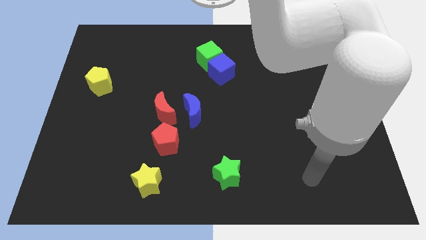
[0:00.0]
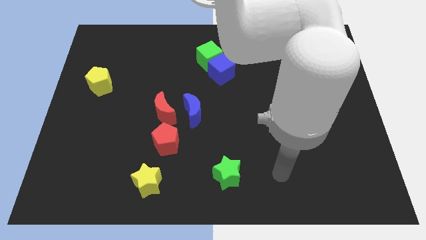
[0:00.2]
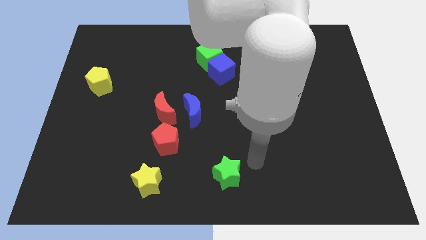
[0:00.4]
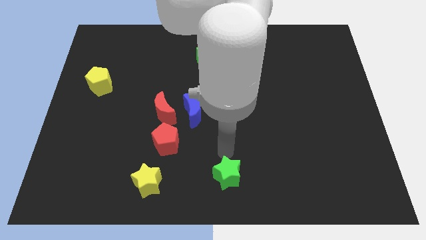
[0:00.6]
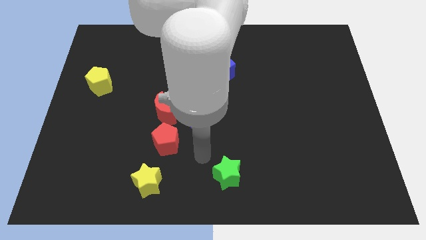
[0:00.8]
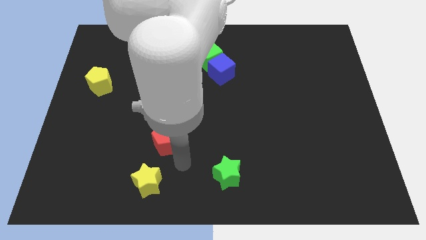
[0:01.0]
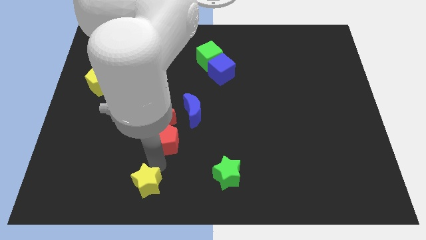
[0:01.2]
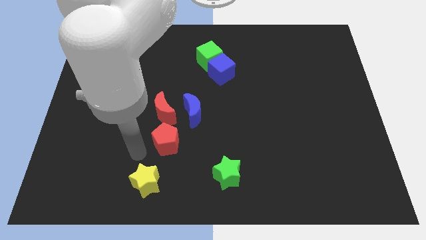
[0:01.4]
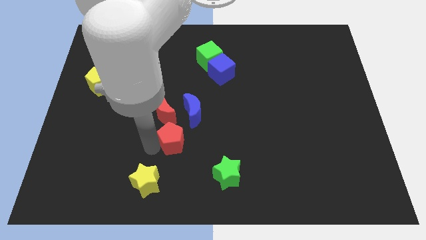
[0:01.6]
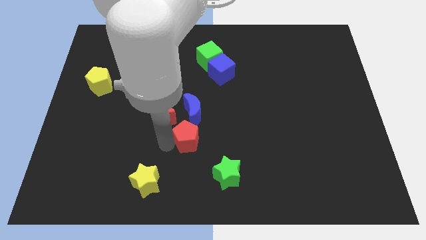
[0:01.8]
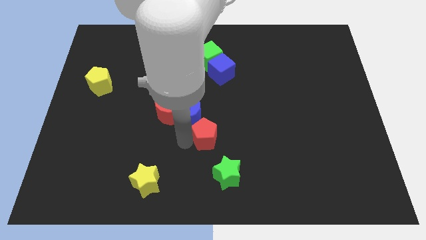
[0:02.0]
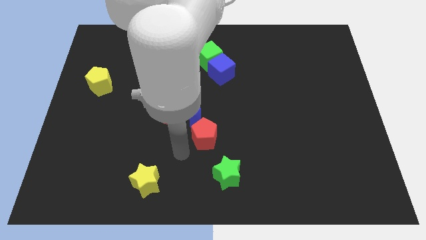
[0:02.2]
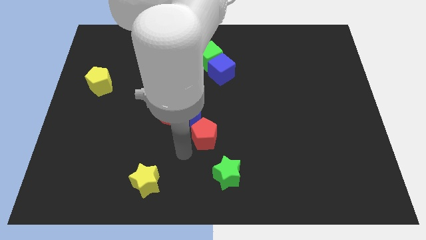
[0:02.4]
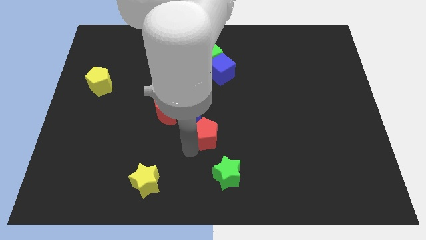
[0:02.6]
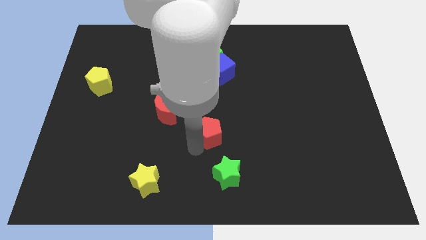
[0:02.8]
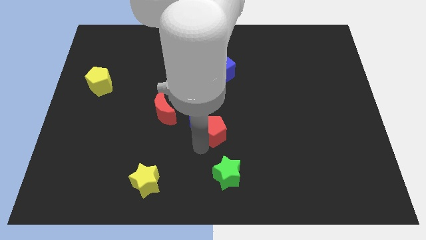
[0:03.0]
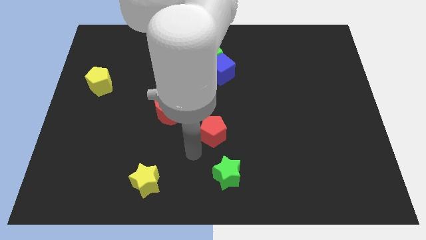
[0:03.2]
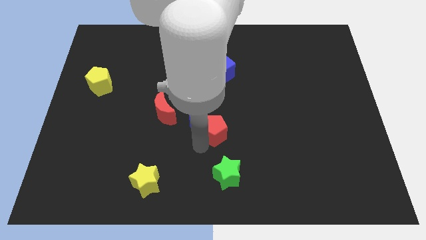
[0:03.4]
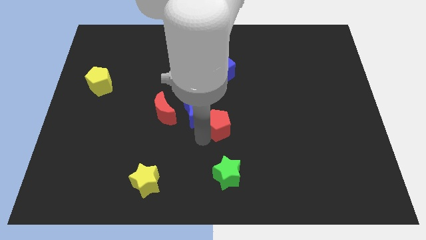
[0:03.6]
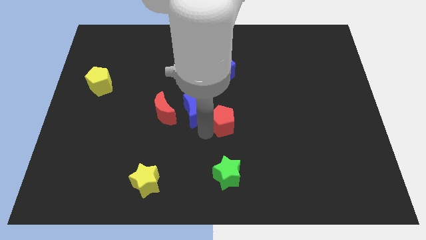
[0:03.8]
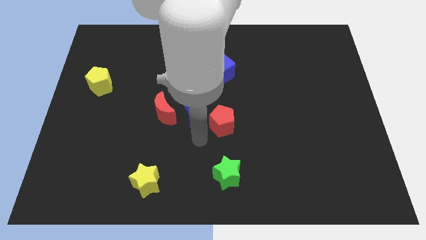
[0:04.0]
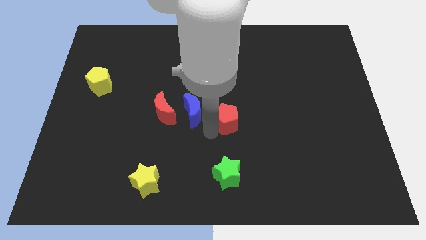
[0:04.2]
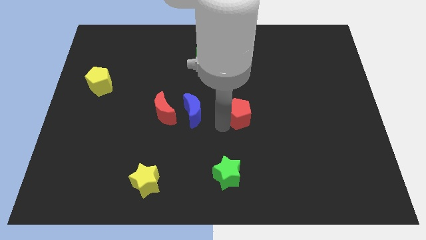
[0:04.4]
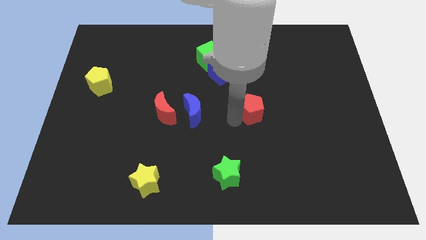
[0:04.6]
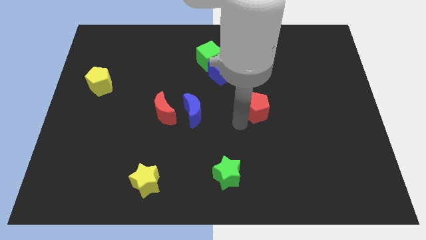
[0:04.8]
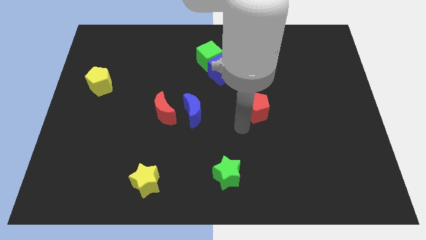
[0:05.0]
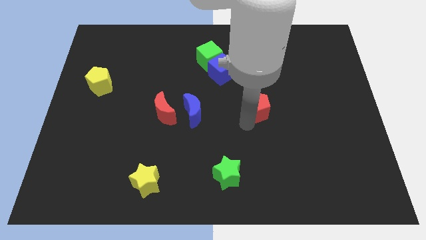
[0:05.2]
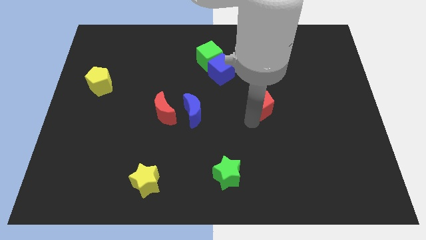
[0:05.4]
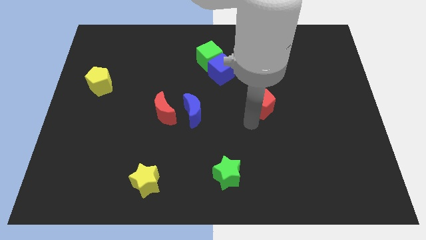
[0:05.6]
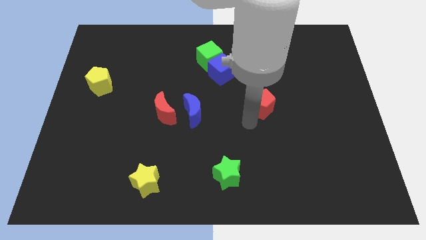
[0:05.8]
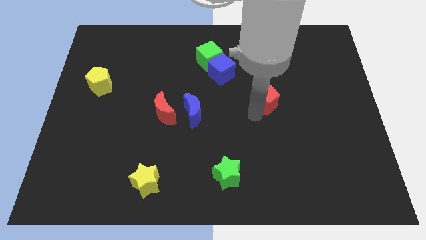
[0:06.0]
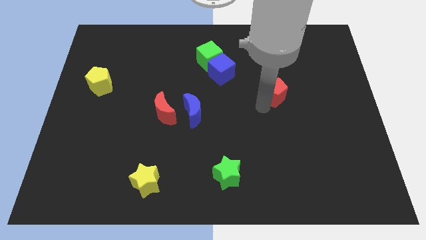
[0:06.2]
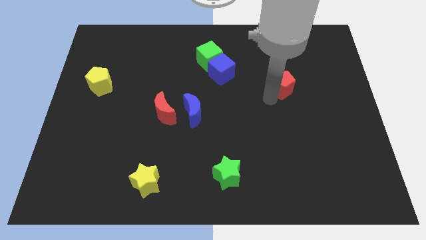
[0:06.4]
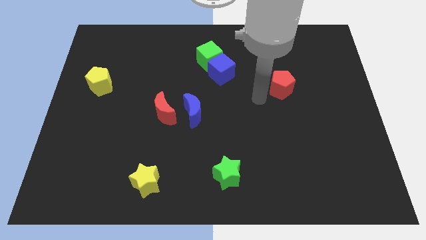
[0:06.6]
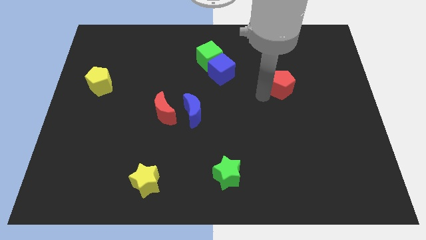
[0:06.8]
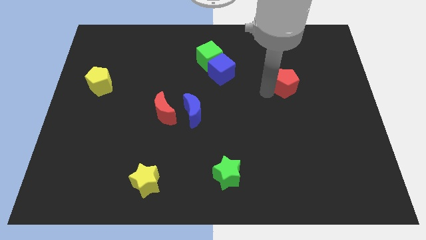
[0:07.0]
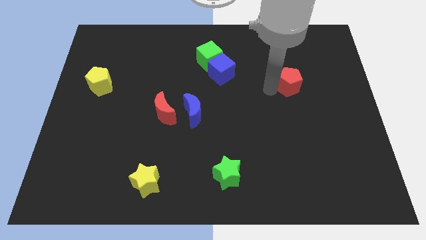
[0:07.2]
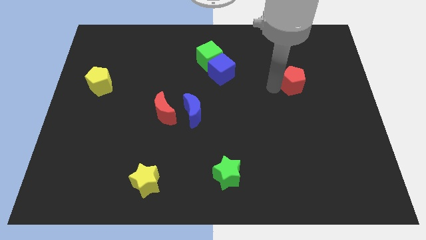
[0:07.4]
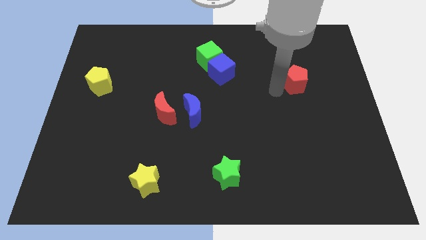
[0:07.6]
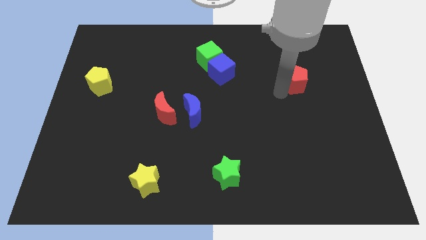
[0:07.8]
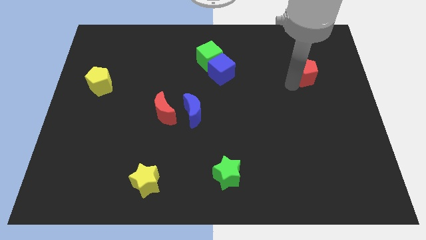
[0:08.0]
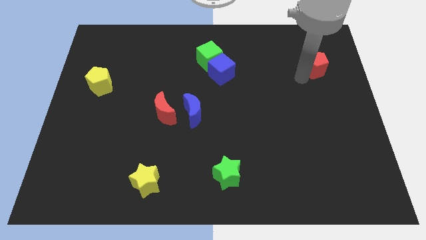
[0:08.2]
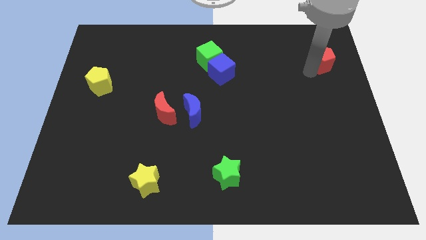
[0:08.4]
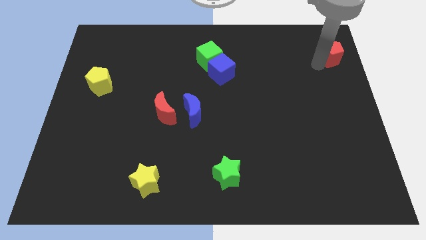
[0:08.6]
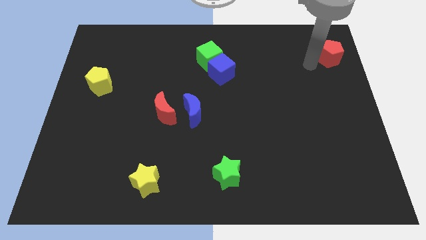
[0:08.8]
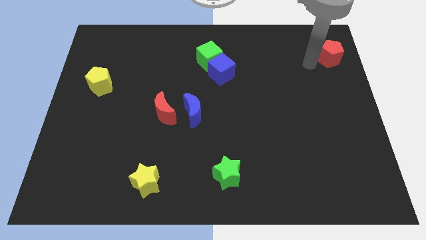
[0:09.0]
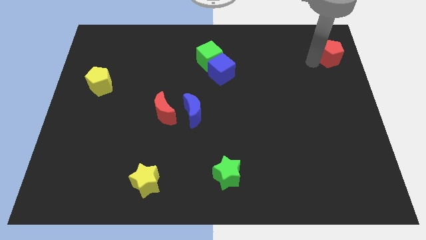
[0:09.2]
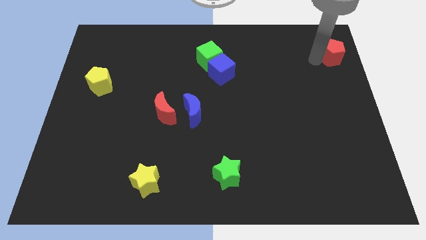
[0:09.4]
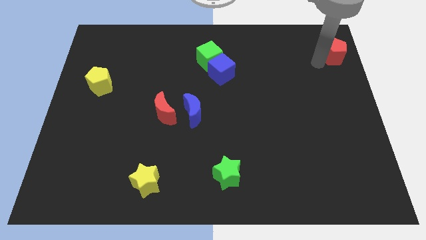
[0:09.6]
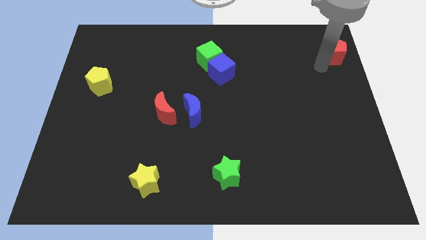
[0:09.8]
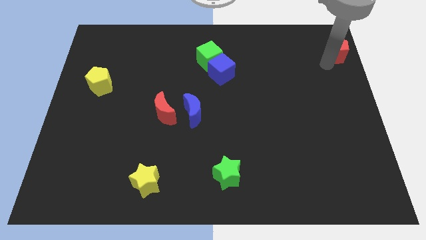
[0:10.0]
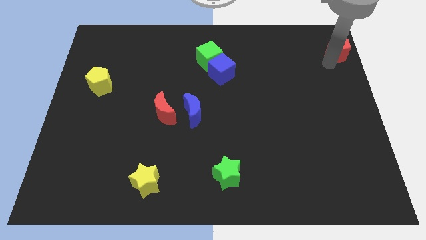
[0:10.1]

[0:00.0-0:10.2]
move the red pentagon to the top right of the board

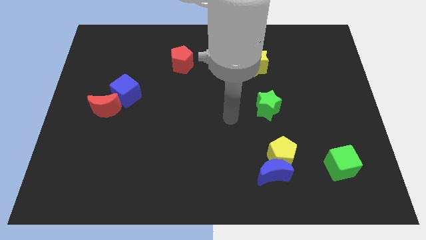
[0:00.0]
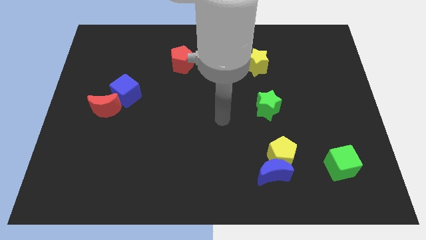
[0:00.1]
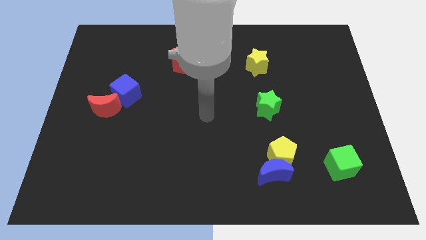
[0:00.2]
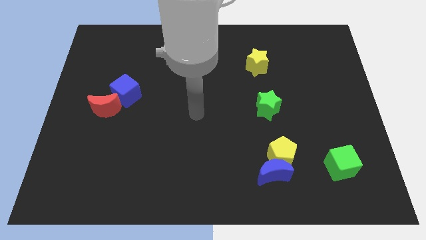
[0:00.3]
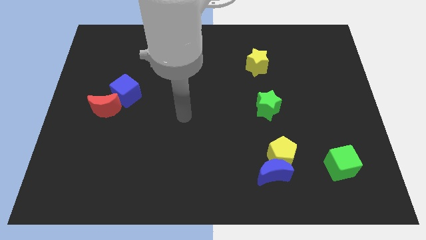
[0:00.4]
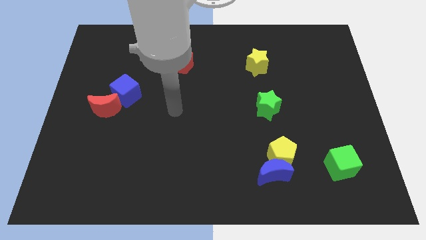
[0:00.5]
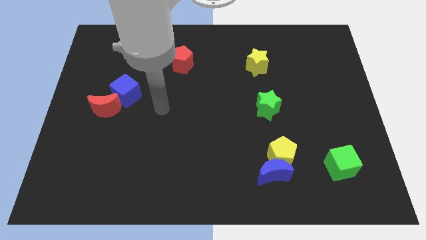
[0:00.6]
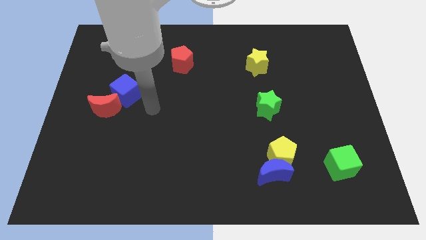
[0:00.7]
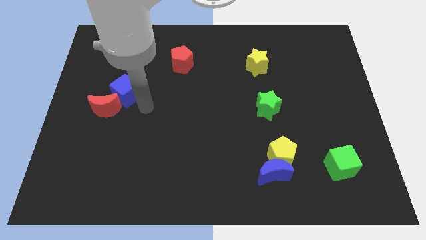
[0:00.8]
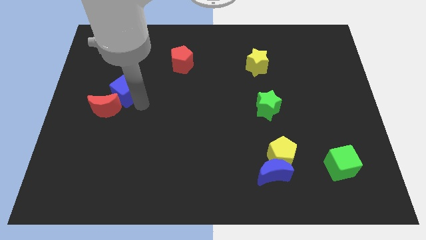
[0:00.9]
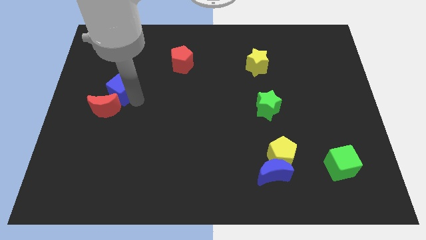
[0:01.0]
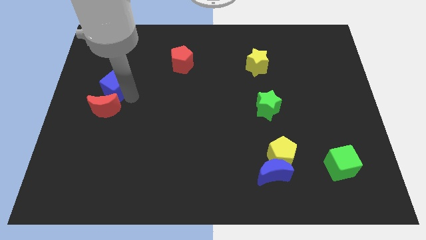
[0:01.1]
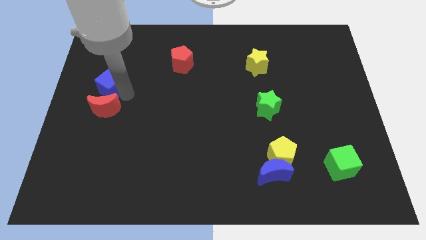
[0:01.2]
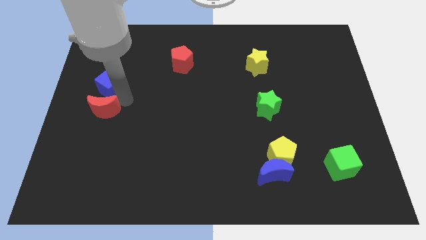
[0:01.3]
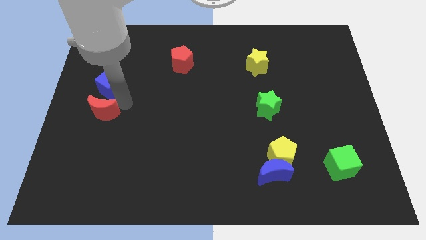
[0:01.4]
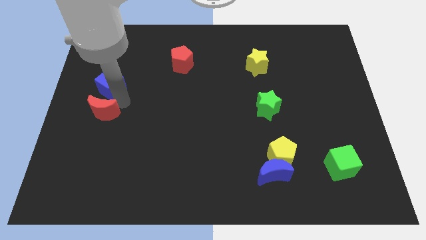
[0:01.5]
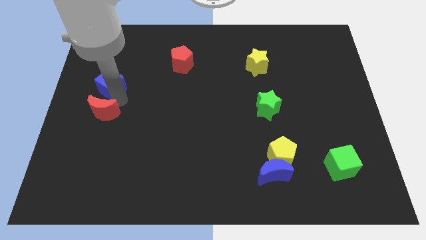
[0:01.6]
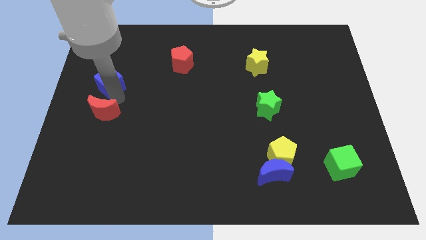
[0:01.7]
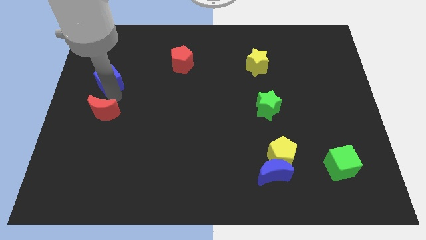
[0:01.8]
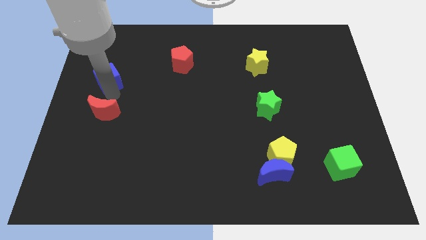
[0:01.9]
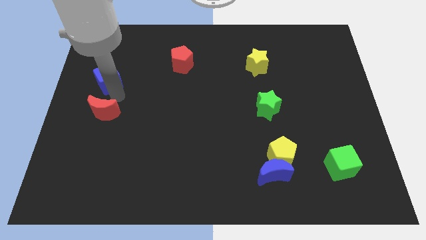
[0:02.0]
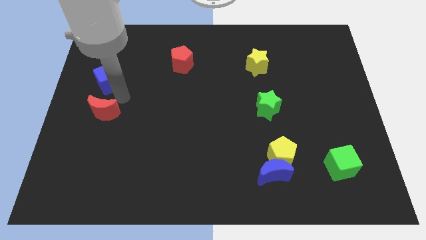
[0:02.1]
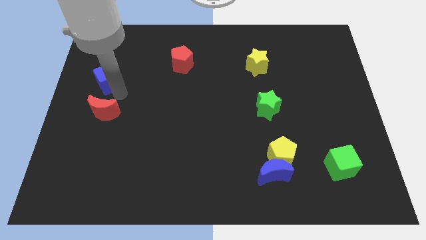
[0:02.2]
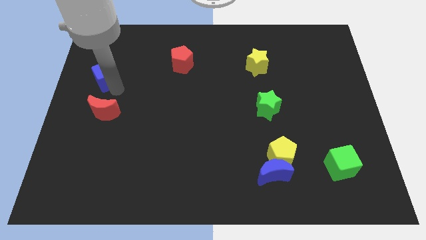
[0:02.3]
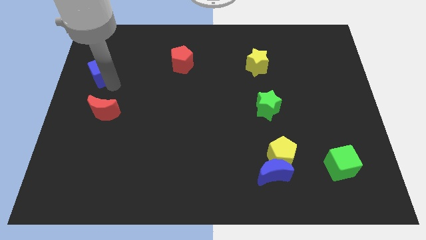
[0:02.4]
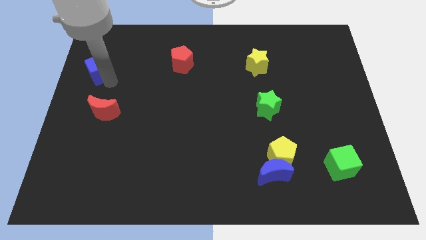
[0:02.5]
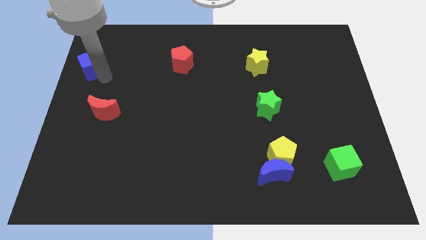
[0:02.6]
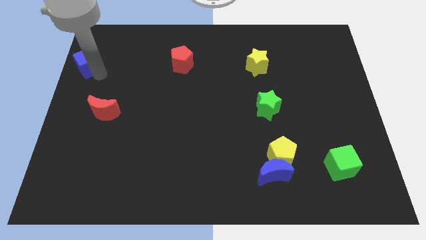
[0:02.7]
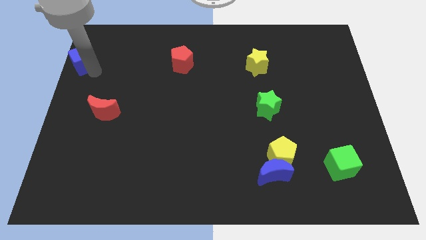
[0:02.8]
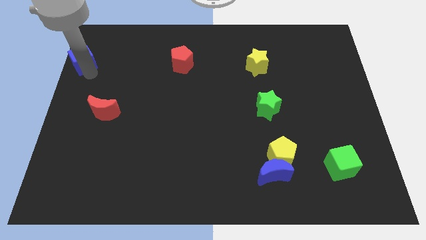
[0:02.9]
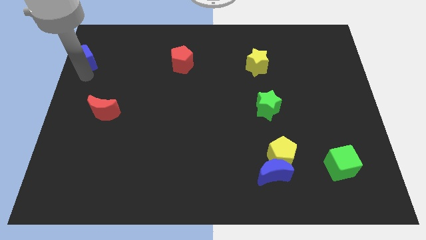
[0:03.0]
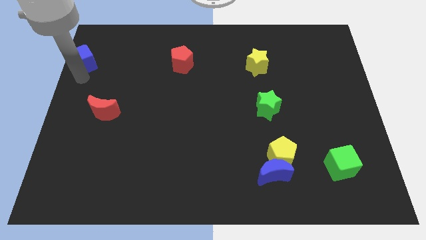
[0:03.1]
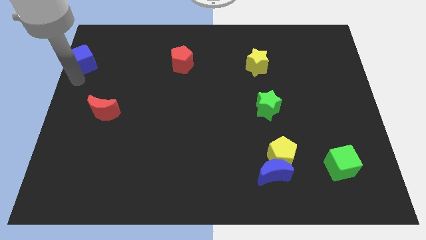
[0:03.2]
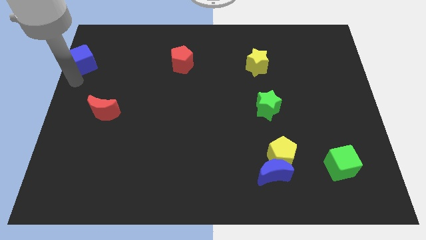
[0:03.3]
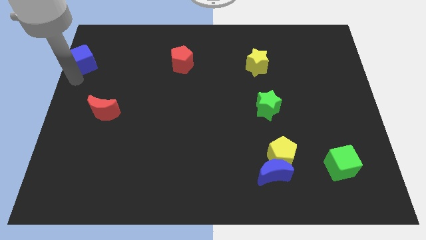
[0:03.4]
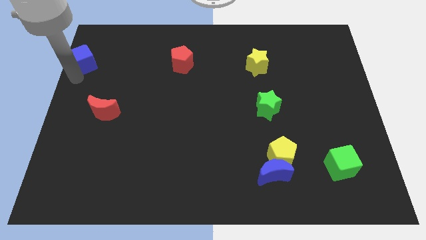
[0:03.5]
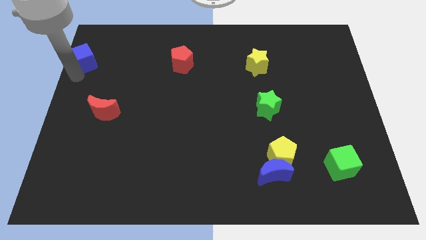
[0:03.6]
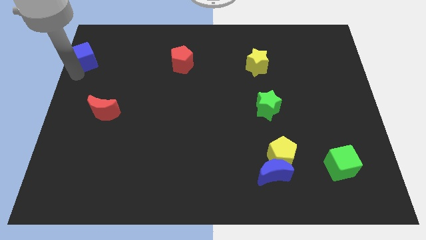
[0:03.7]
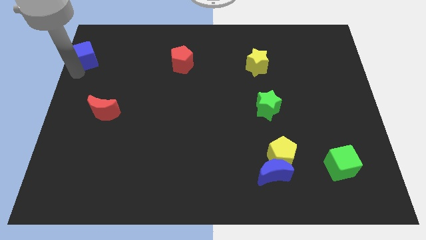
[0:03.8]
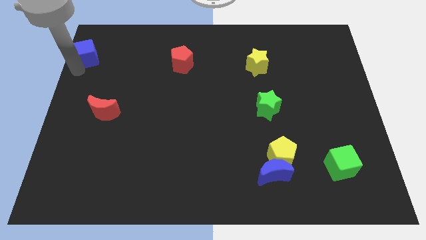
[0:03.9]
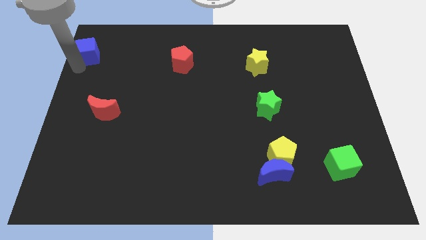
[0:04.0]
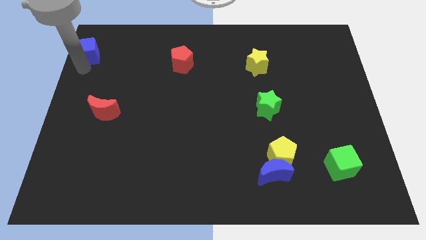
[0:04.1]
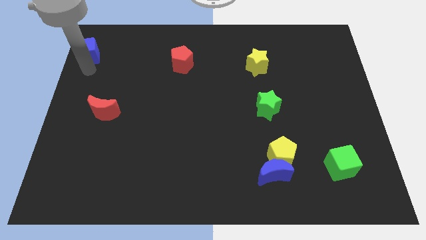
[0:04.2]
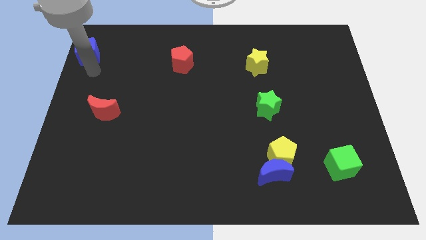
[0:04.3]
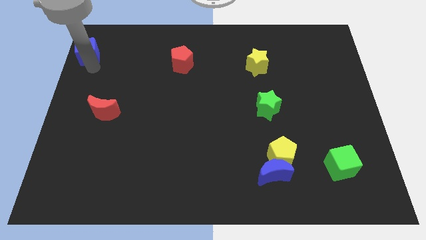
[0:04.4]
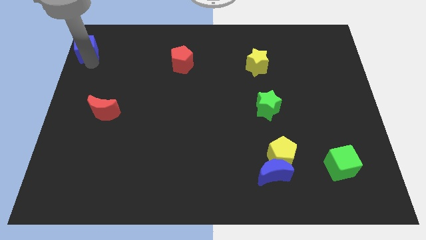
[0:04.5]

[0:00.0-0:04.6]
push the blue cube to the top left corner
